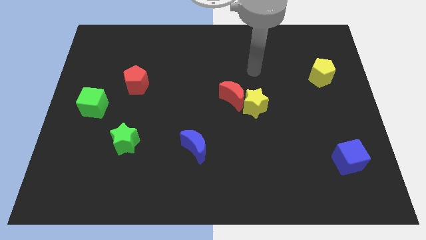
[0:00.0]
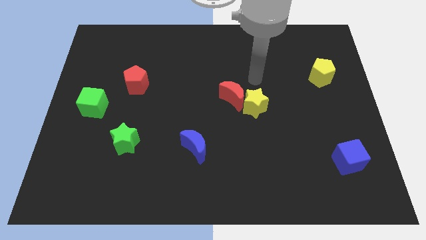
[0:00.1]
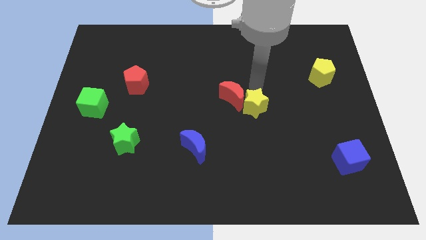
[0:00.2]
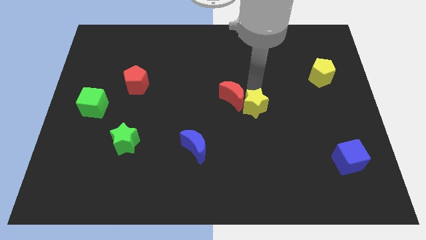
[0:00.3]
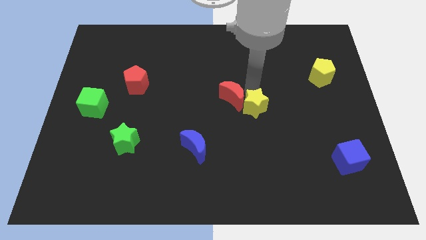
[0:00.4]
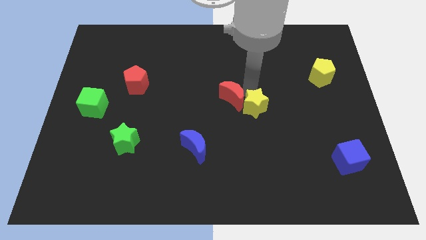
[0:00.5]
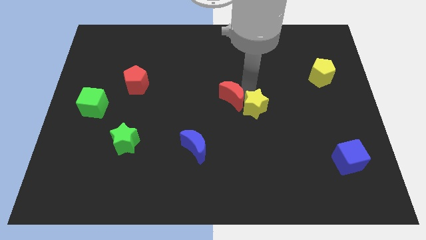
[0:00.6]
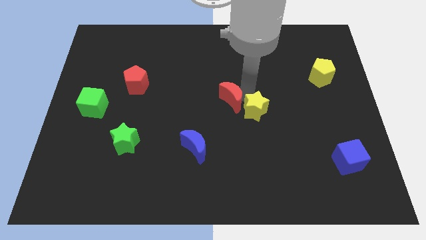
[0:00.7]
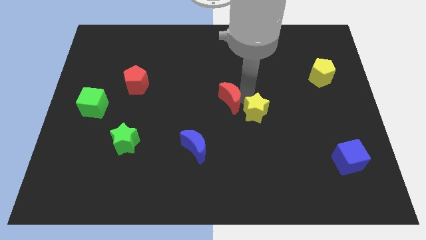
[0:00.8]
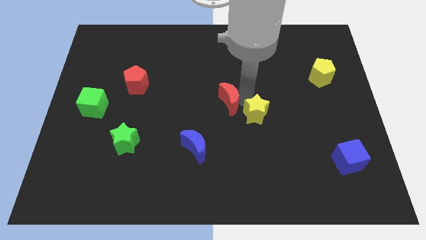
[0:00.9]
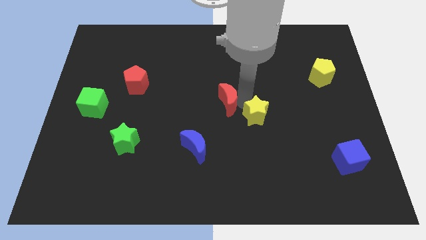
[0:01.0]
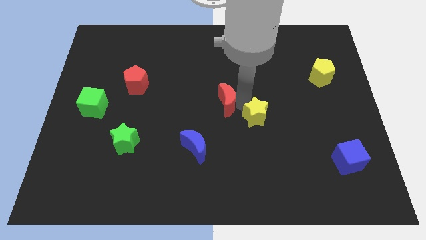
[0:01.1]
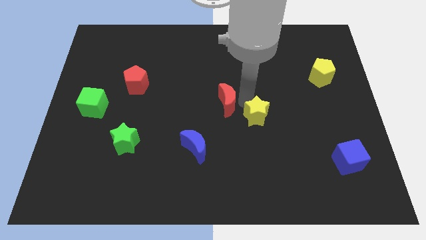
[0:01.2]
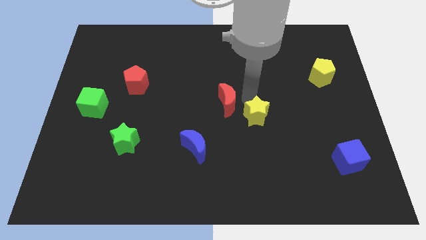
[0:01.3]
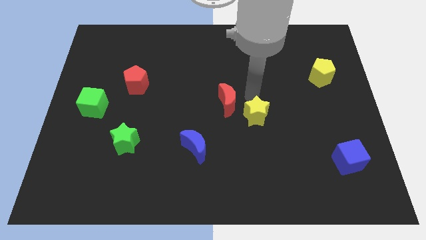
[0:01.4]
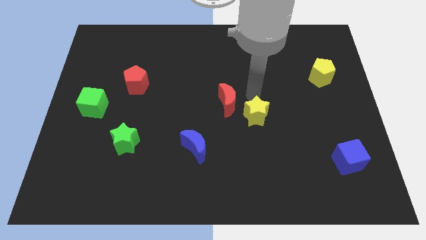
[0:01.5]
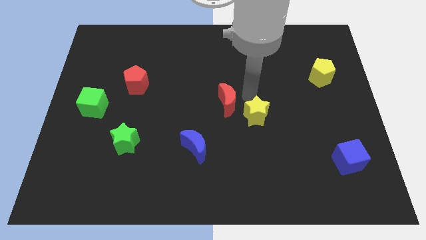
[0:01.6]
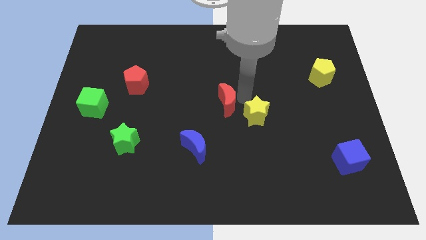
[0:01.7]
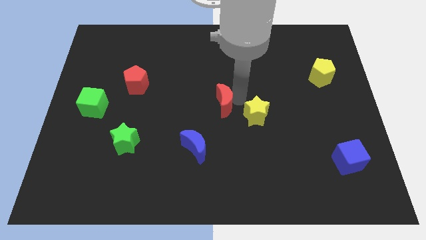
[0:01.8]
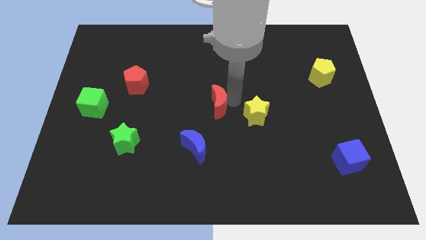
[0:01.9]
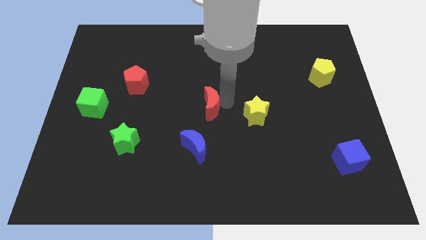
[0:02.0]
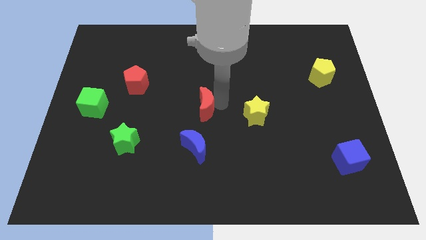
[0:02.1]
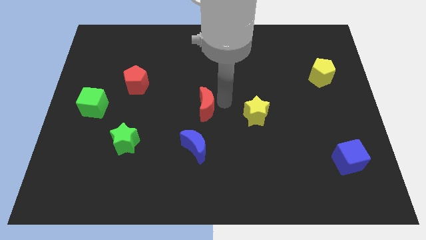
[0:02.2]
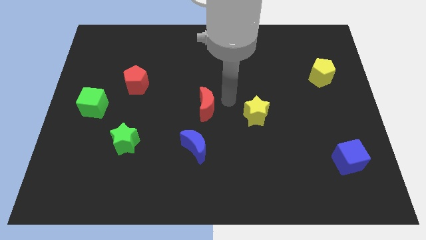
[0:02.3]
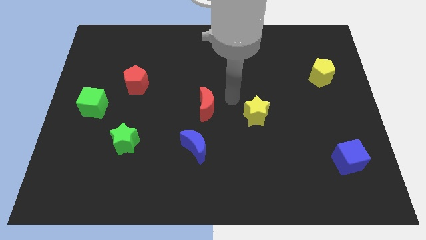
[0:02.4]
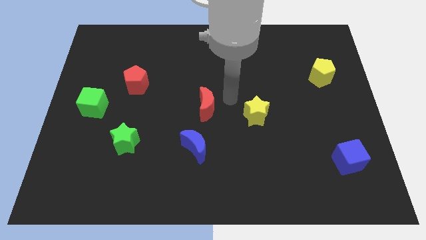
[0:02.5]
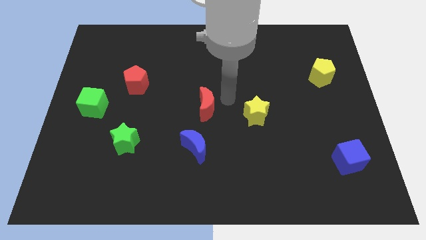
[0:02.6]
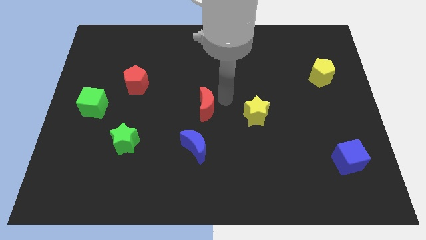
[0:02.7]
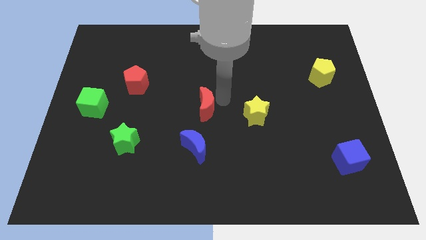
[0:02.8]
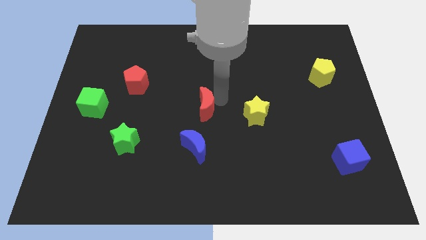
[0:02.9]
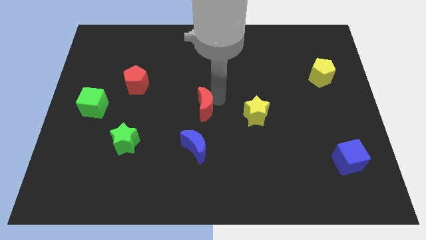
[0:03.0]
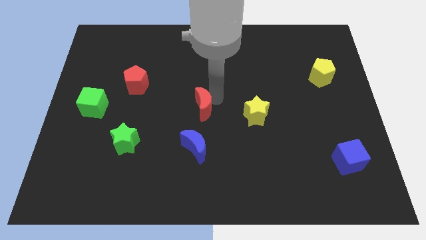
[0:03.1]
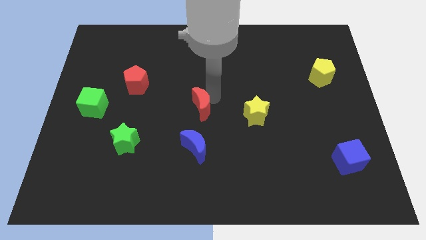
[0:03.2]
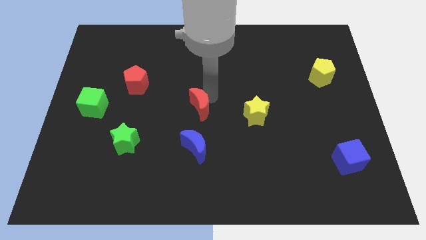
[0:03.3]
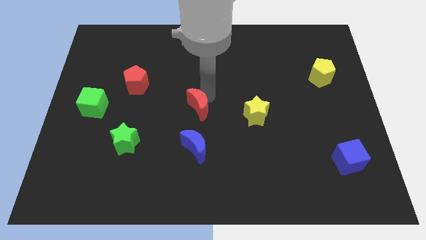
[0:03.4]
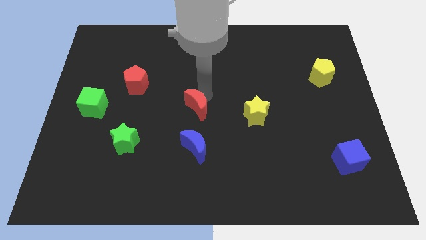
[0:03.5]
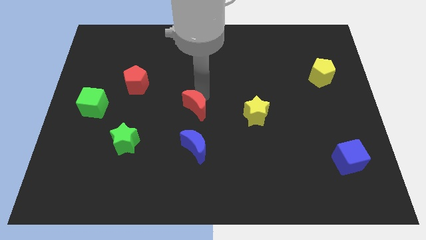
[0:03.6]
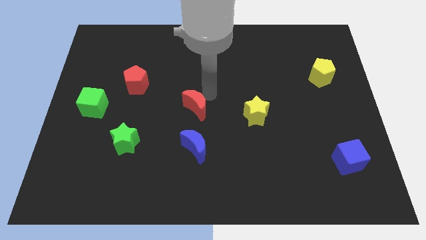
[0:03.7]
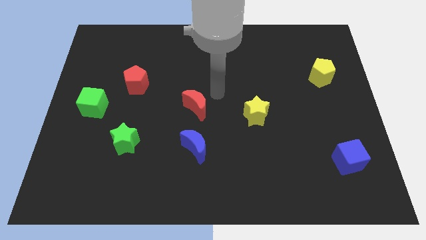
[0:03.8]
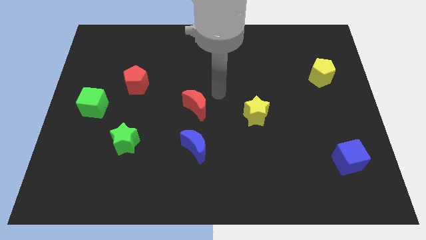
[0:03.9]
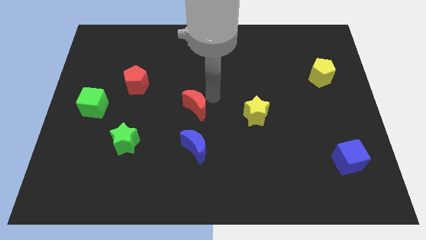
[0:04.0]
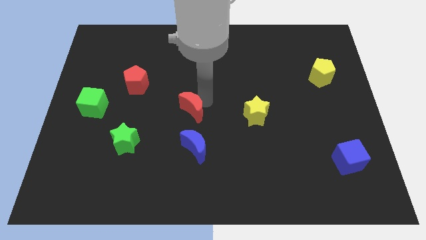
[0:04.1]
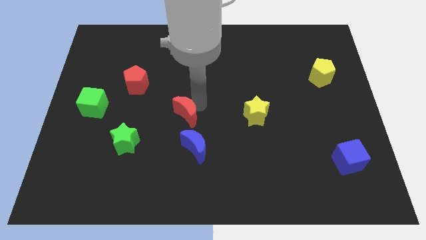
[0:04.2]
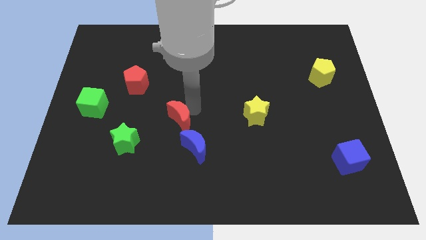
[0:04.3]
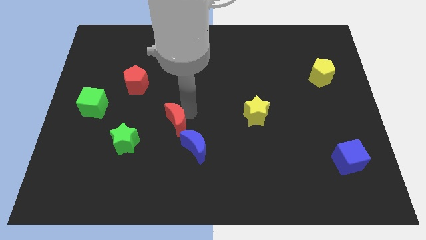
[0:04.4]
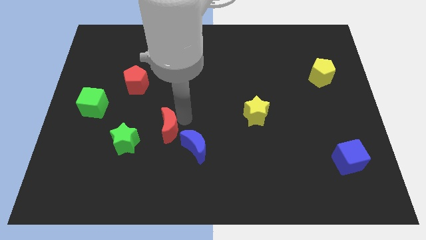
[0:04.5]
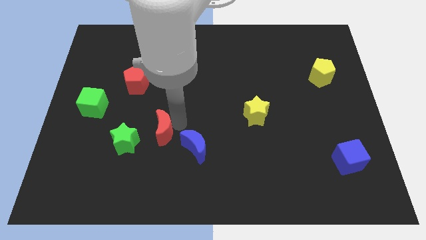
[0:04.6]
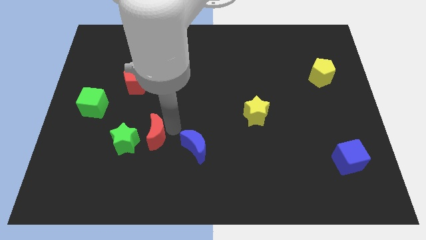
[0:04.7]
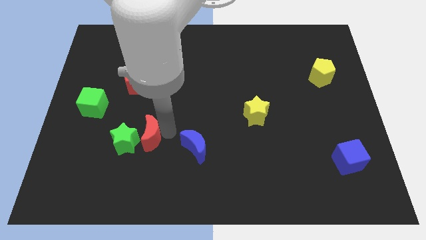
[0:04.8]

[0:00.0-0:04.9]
push the red moon towards the green star

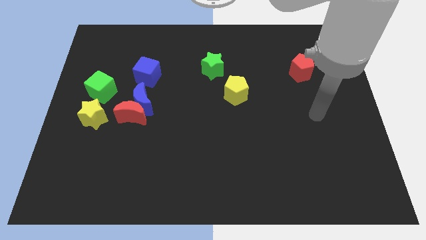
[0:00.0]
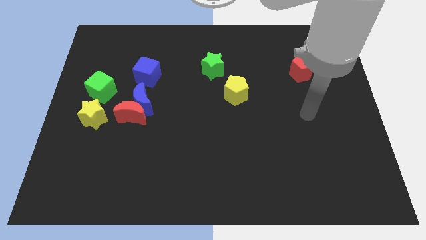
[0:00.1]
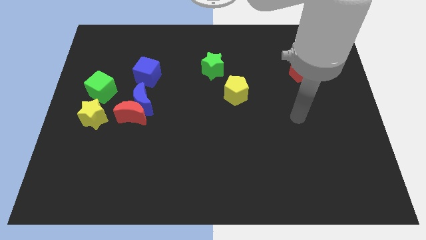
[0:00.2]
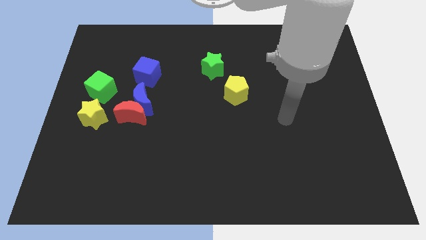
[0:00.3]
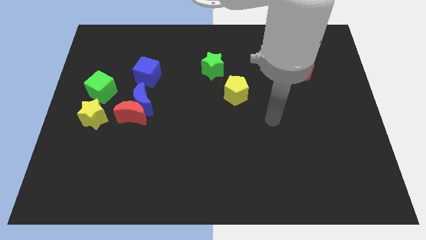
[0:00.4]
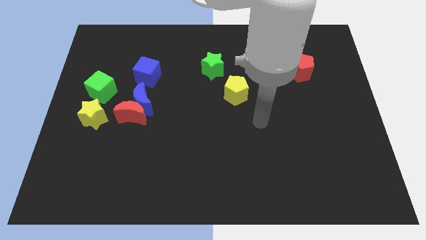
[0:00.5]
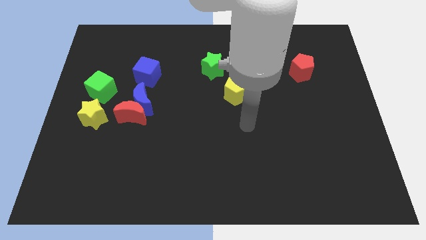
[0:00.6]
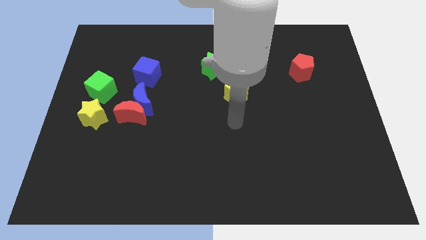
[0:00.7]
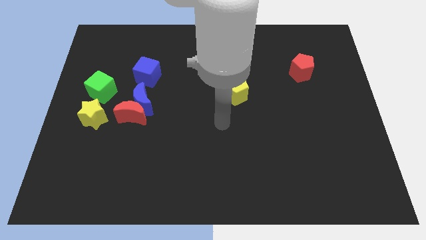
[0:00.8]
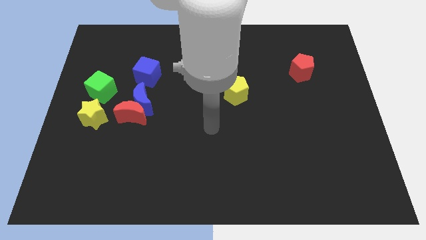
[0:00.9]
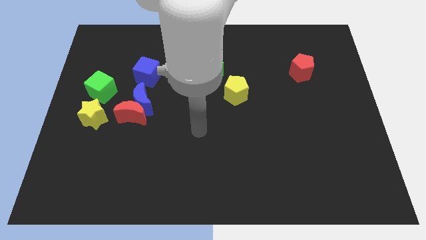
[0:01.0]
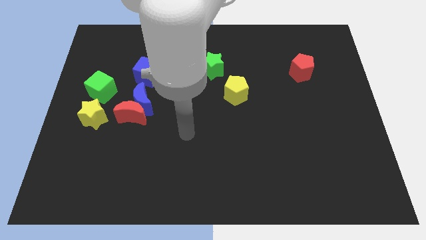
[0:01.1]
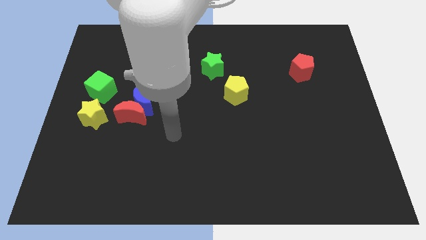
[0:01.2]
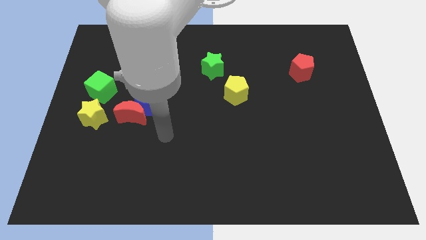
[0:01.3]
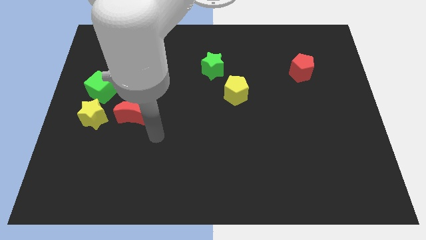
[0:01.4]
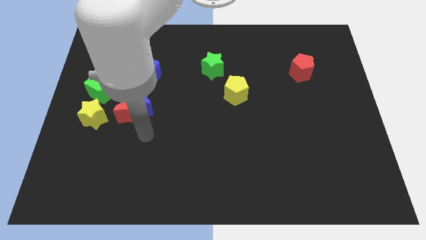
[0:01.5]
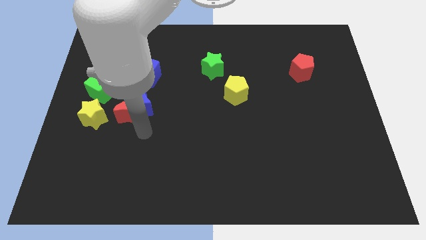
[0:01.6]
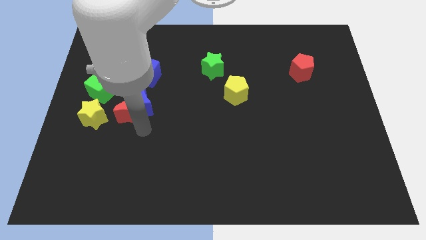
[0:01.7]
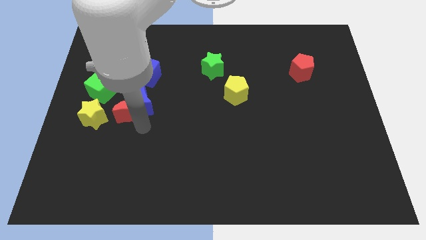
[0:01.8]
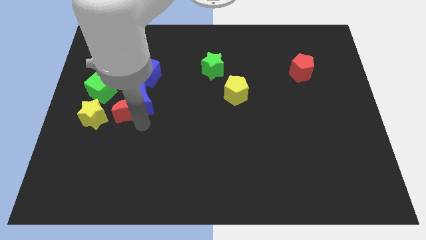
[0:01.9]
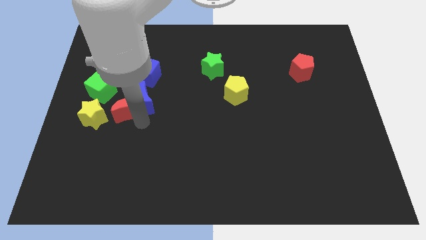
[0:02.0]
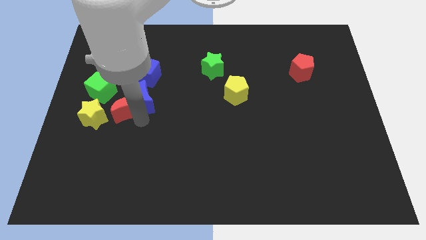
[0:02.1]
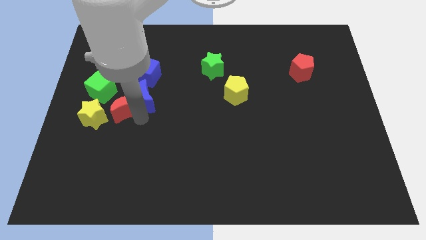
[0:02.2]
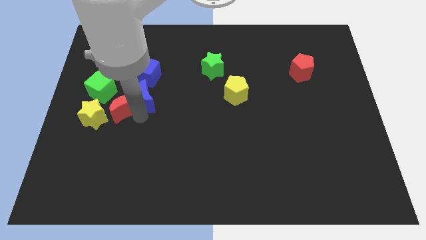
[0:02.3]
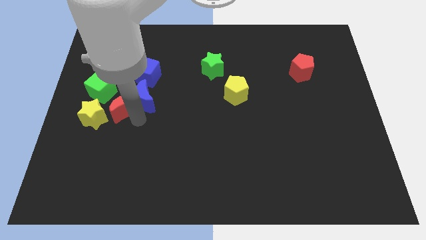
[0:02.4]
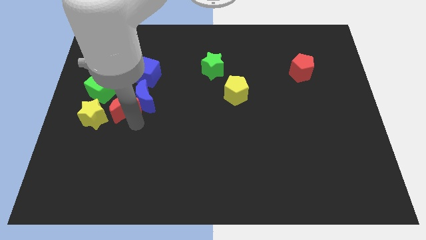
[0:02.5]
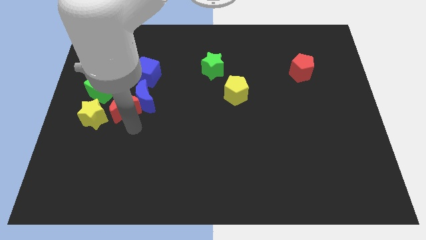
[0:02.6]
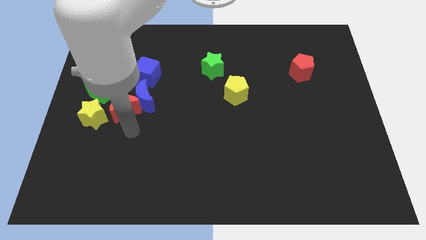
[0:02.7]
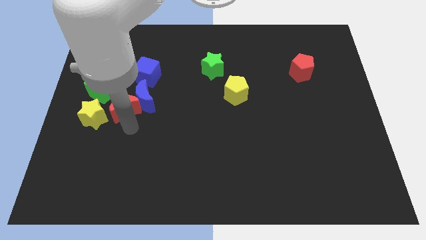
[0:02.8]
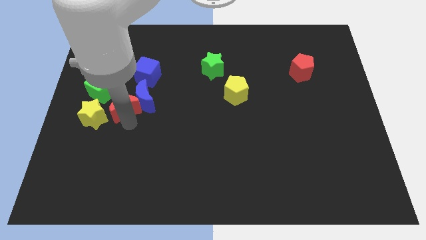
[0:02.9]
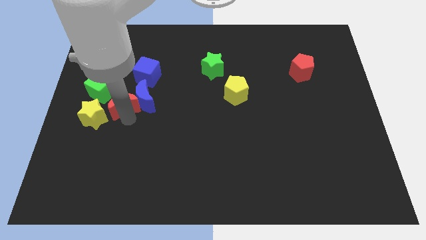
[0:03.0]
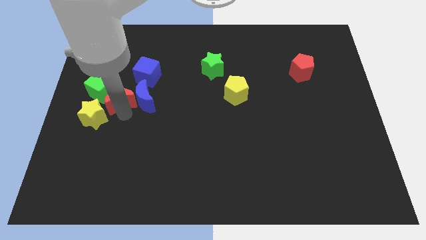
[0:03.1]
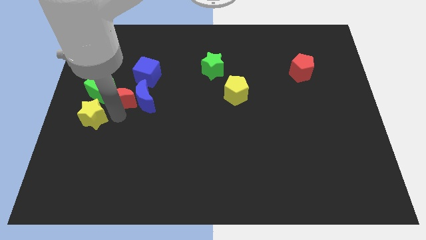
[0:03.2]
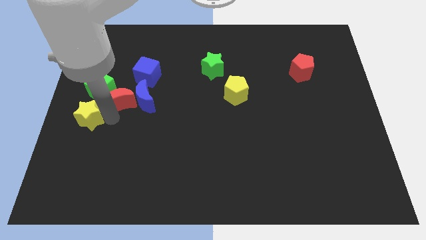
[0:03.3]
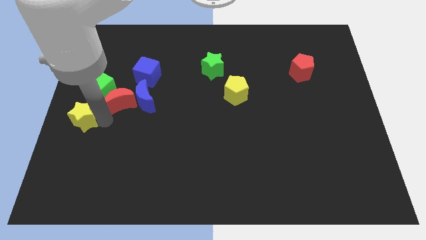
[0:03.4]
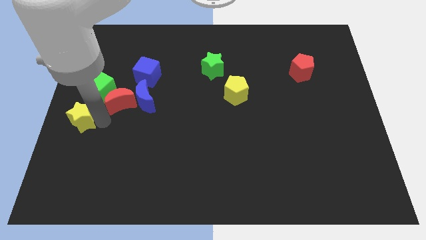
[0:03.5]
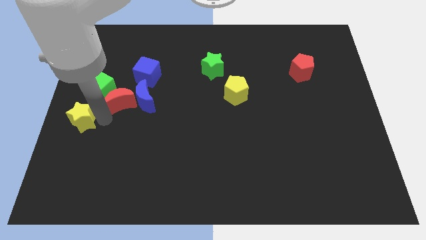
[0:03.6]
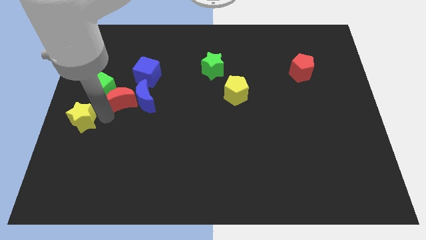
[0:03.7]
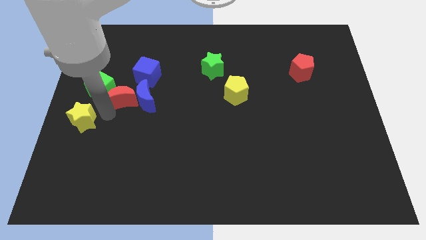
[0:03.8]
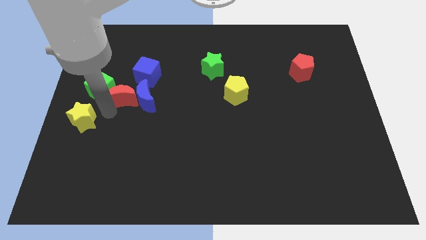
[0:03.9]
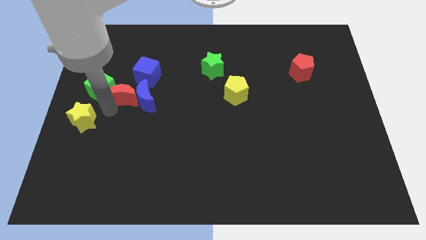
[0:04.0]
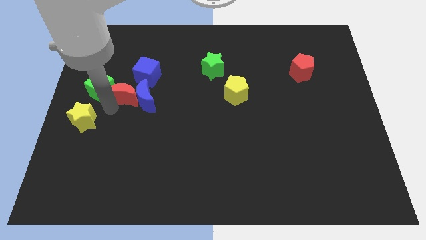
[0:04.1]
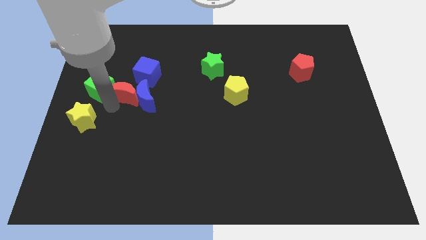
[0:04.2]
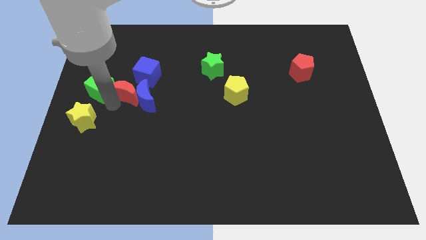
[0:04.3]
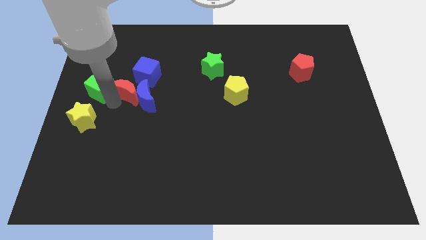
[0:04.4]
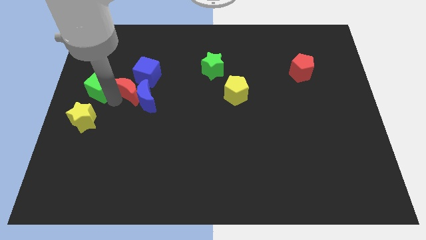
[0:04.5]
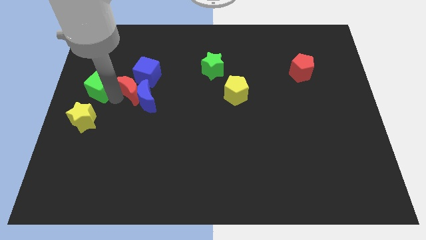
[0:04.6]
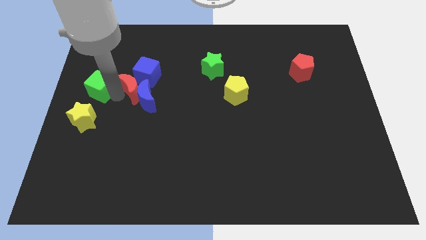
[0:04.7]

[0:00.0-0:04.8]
push the red moon towards the blue cube
